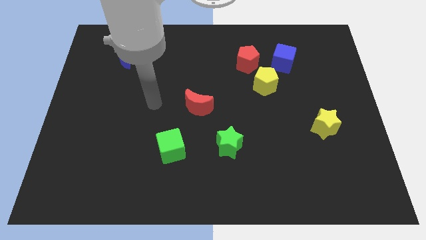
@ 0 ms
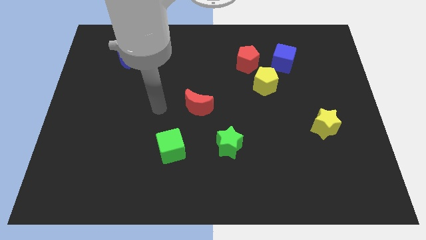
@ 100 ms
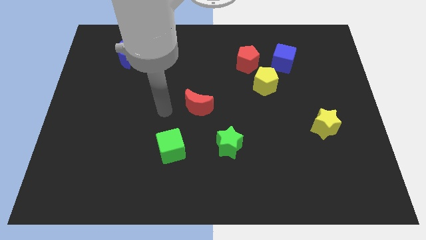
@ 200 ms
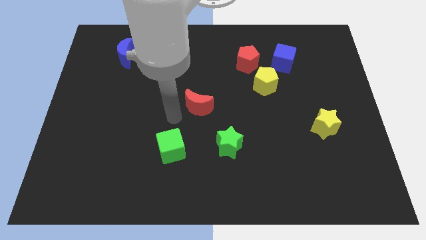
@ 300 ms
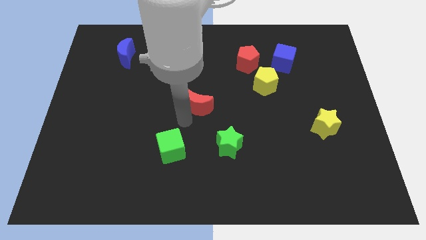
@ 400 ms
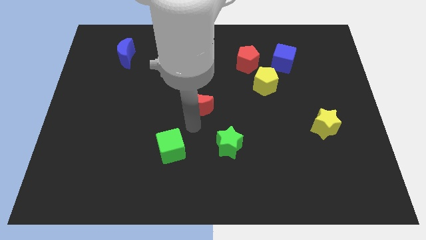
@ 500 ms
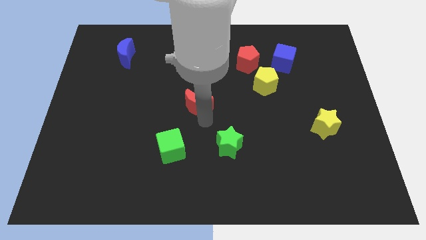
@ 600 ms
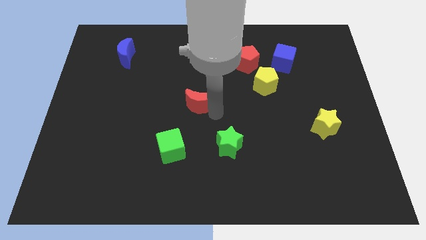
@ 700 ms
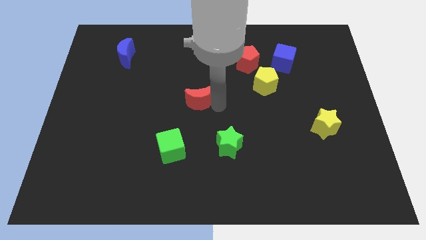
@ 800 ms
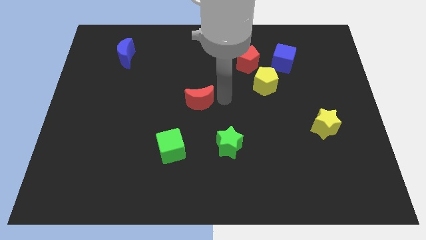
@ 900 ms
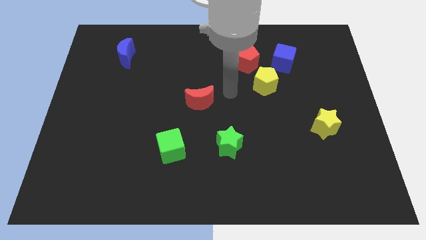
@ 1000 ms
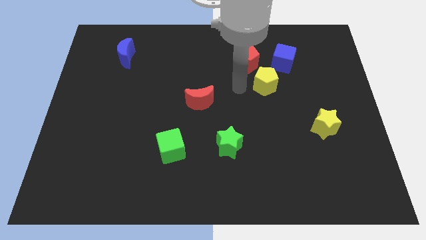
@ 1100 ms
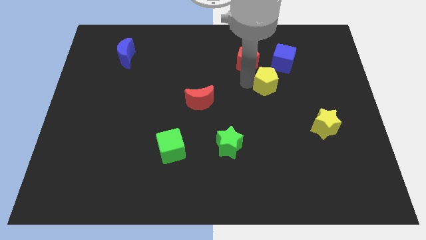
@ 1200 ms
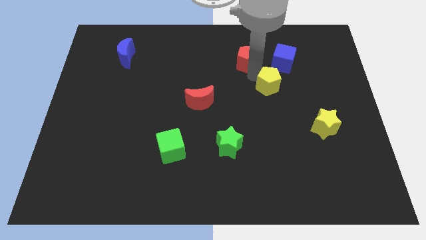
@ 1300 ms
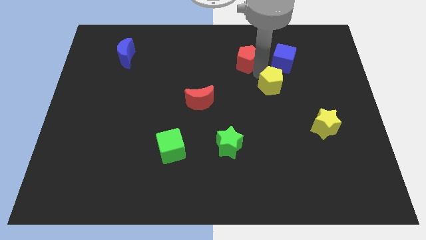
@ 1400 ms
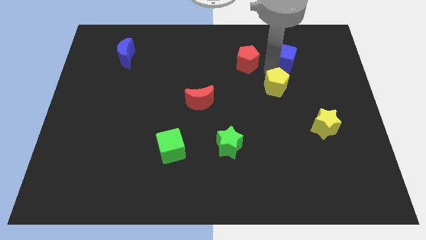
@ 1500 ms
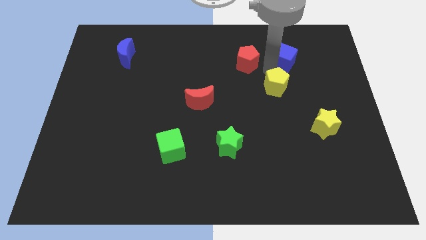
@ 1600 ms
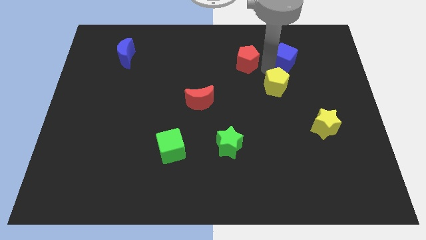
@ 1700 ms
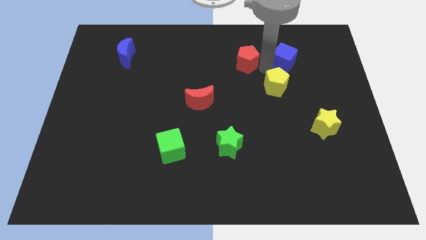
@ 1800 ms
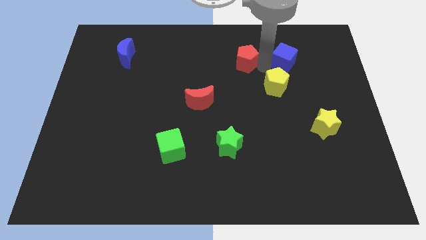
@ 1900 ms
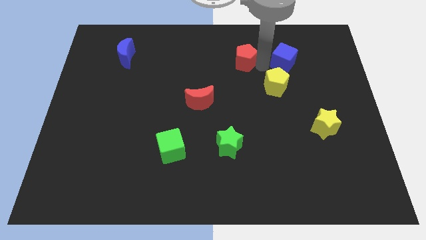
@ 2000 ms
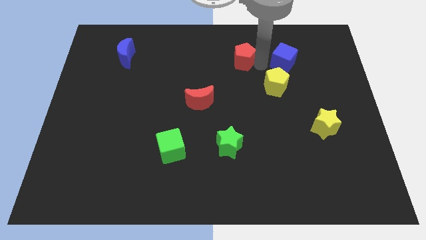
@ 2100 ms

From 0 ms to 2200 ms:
pull the red pentagon apart from the yellow pentagon and blue cube

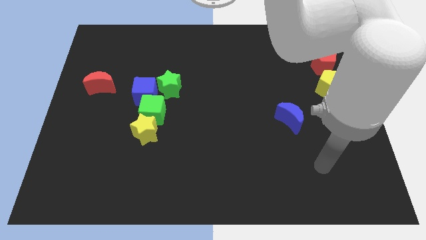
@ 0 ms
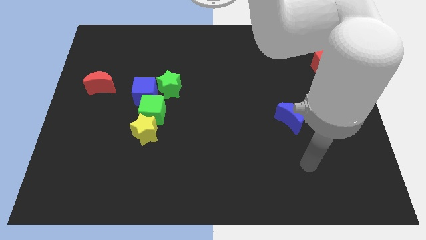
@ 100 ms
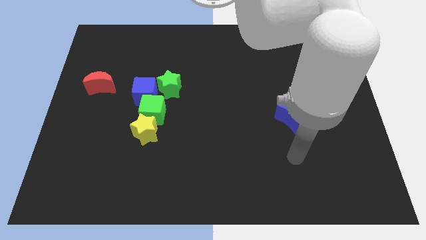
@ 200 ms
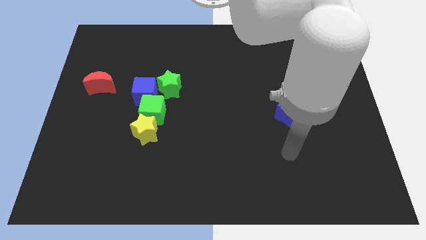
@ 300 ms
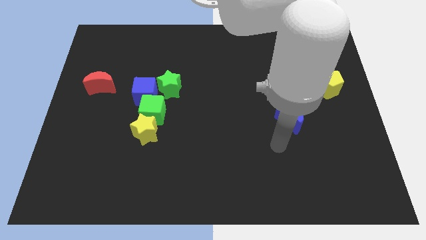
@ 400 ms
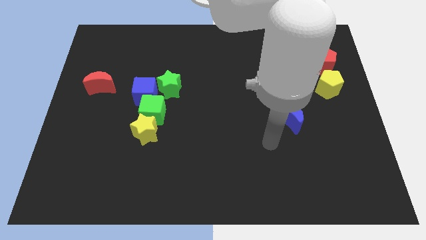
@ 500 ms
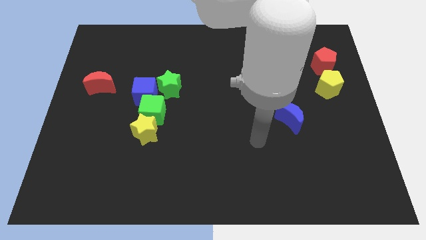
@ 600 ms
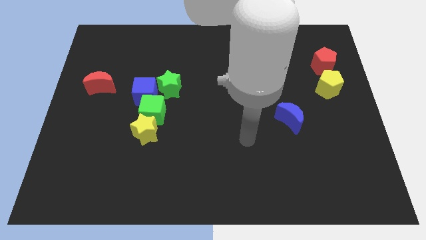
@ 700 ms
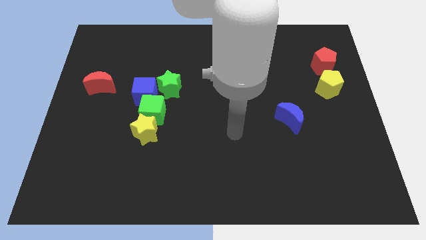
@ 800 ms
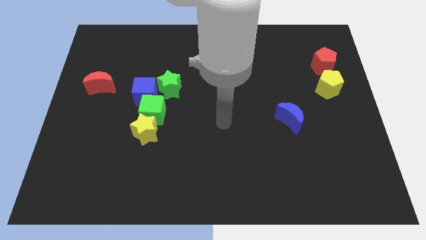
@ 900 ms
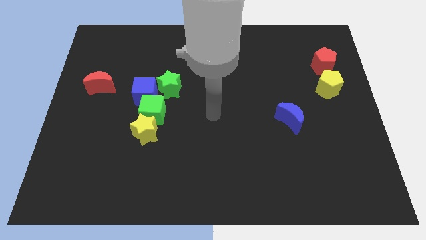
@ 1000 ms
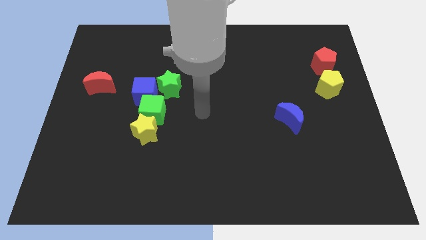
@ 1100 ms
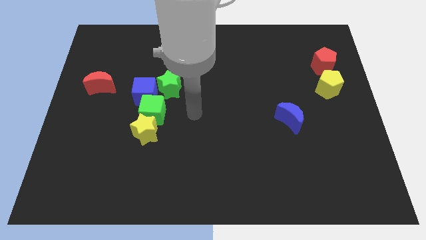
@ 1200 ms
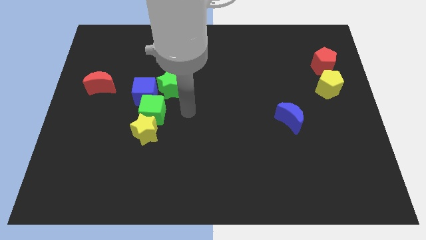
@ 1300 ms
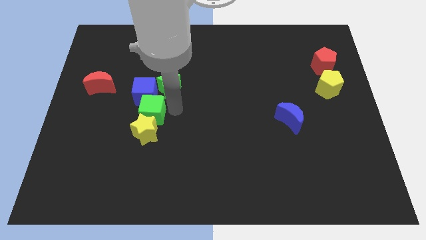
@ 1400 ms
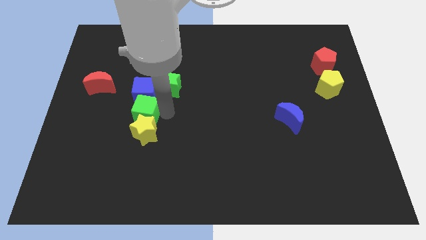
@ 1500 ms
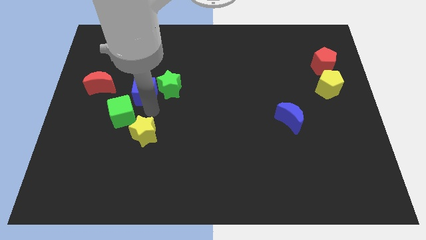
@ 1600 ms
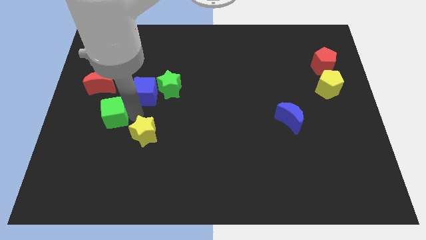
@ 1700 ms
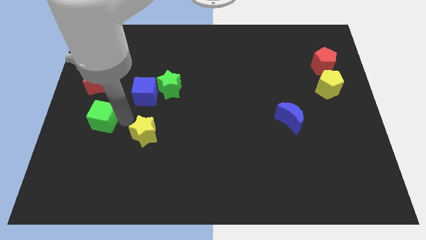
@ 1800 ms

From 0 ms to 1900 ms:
move the yellow star away from the green cube

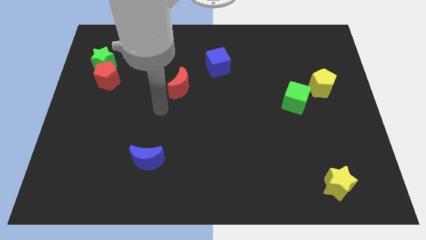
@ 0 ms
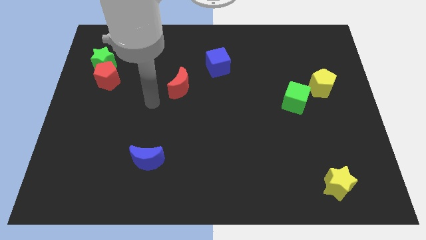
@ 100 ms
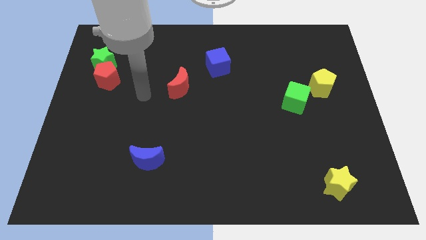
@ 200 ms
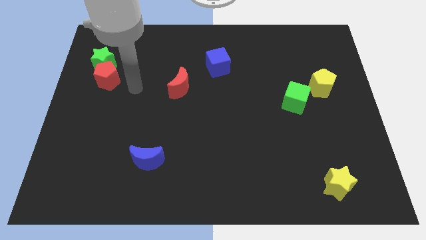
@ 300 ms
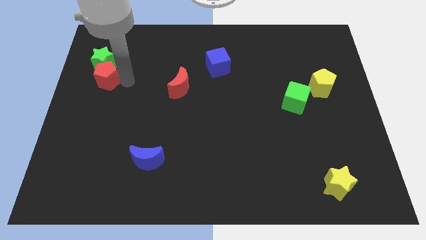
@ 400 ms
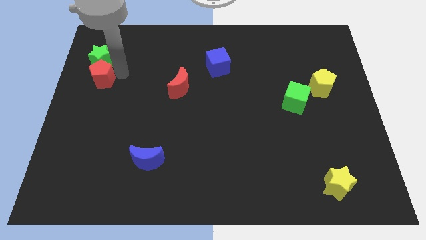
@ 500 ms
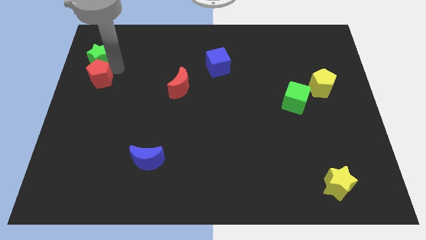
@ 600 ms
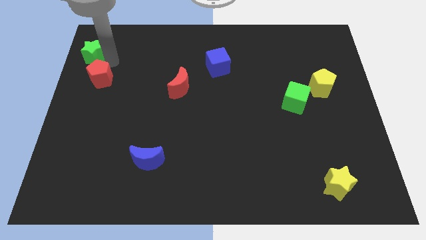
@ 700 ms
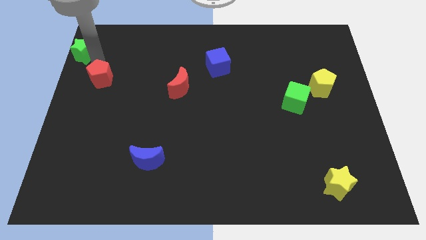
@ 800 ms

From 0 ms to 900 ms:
pull the red pentagon apart from the green star

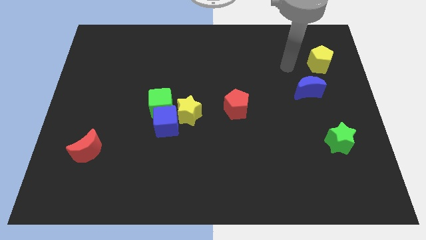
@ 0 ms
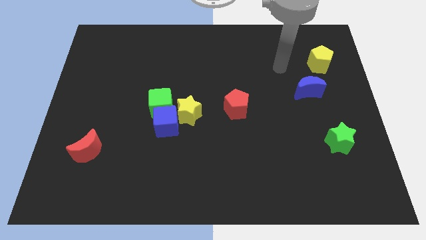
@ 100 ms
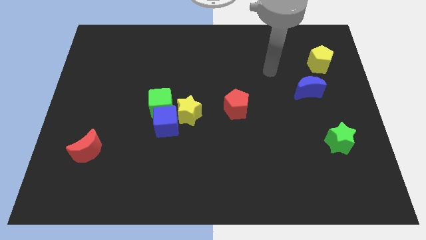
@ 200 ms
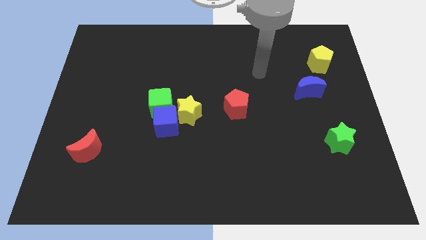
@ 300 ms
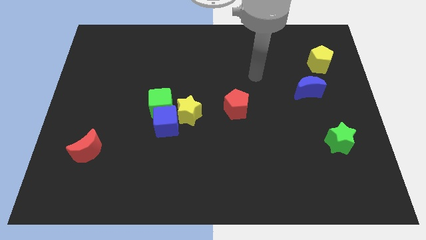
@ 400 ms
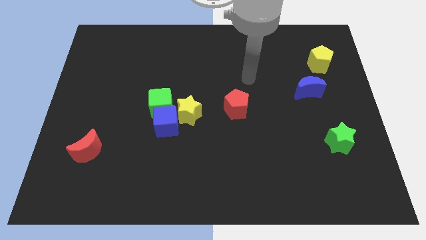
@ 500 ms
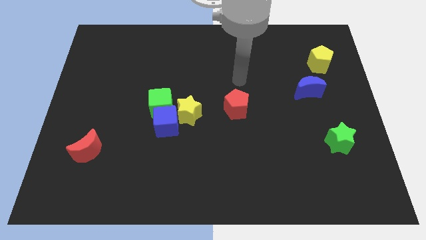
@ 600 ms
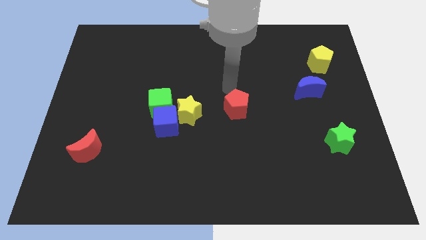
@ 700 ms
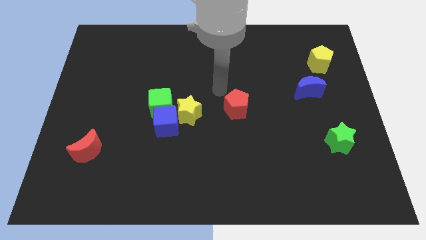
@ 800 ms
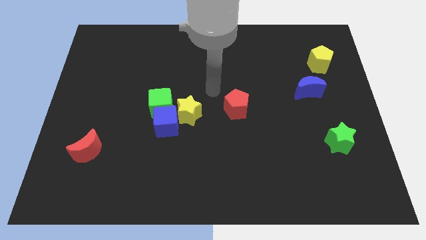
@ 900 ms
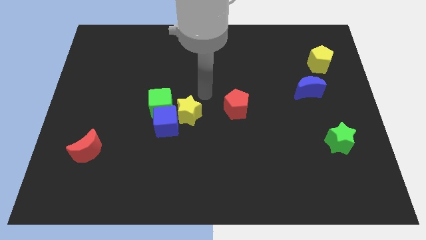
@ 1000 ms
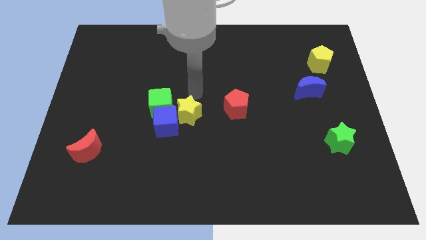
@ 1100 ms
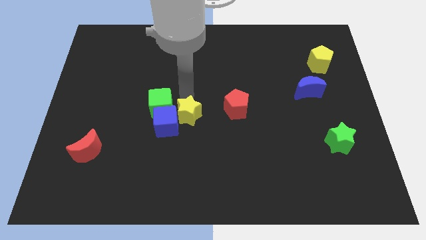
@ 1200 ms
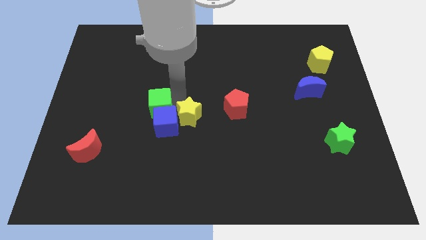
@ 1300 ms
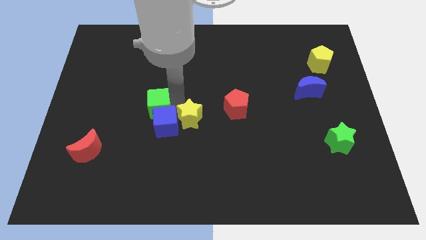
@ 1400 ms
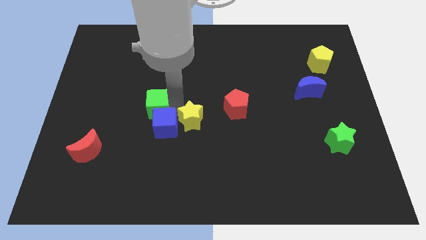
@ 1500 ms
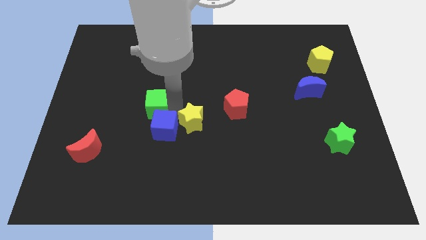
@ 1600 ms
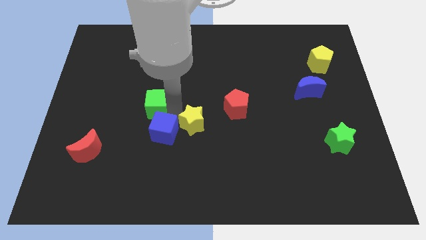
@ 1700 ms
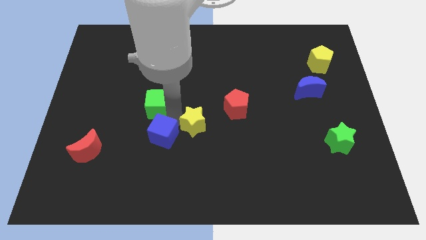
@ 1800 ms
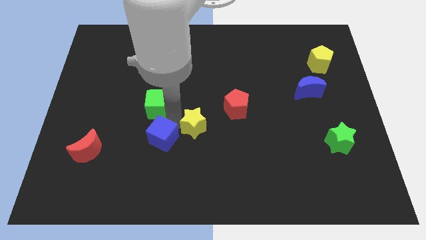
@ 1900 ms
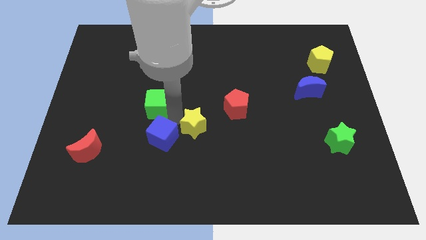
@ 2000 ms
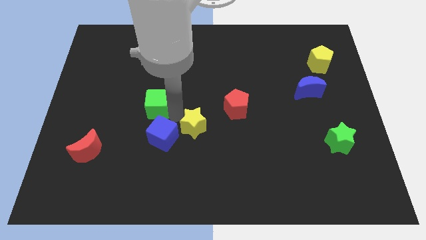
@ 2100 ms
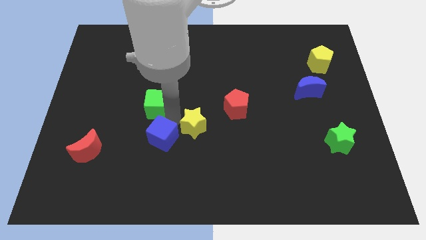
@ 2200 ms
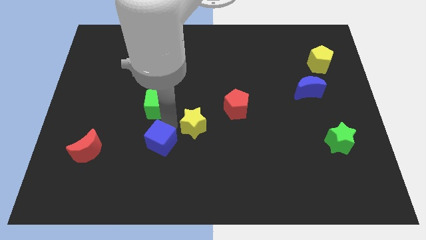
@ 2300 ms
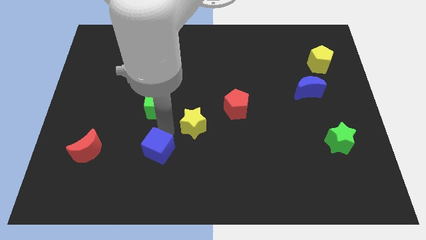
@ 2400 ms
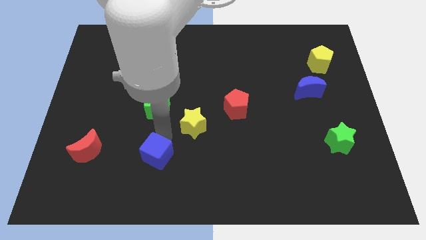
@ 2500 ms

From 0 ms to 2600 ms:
move the blue cube away from the green cube and yellow star

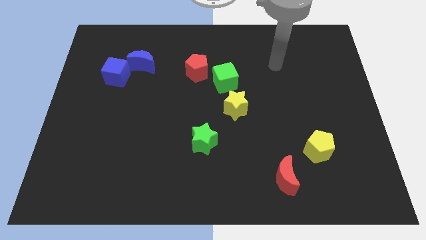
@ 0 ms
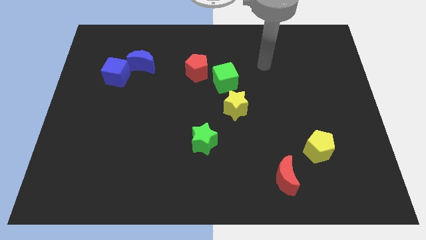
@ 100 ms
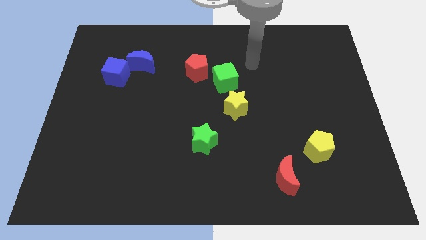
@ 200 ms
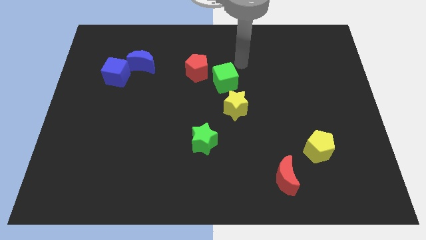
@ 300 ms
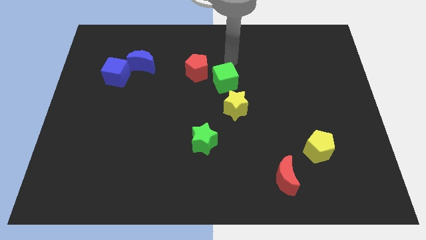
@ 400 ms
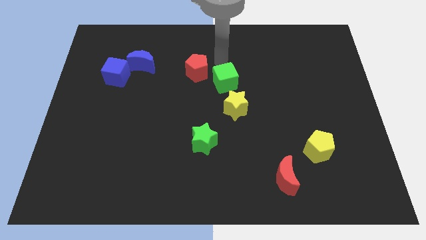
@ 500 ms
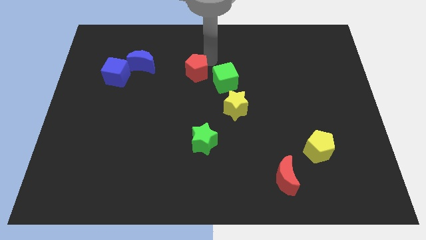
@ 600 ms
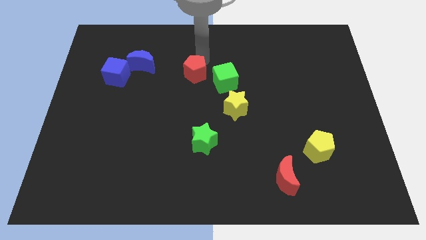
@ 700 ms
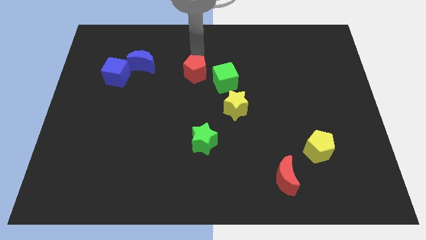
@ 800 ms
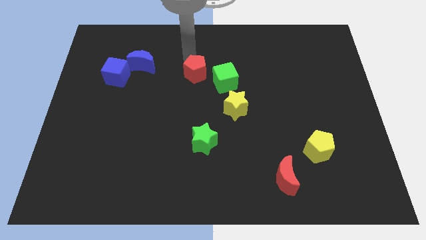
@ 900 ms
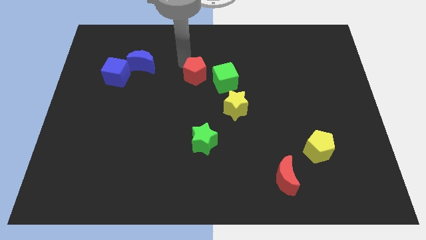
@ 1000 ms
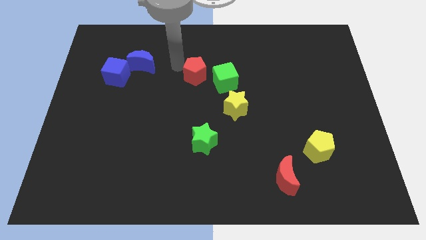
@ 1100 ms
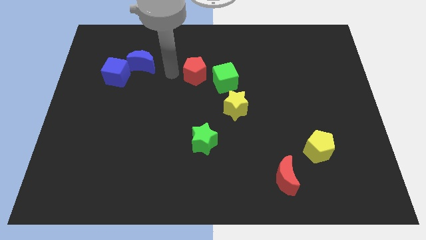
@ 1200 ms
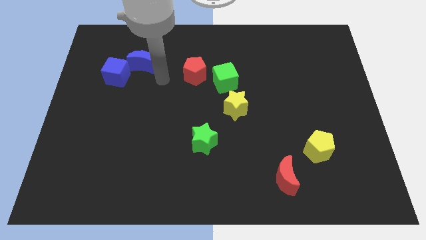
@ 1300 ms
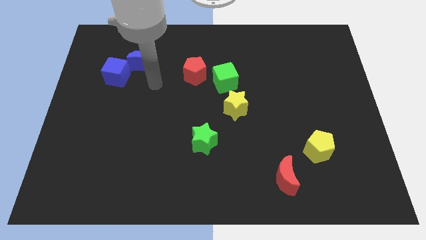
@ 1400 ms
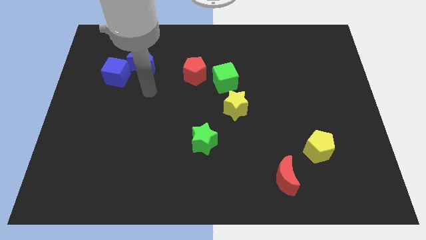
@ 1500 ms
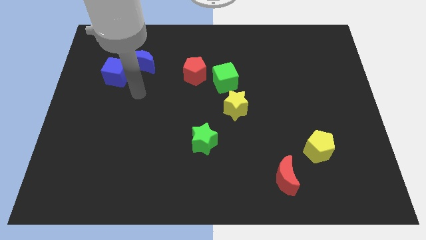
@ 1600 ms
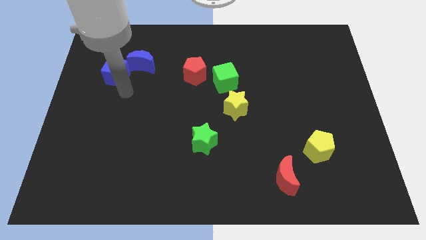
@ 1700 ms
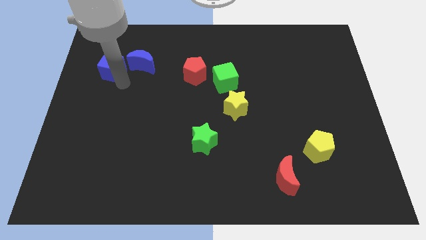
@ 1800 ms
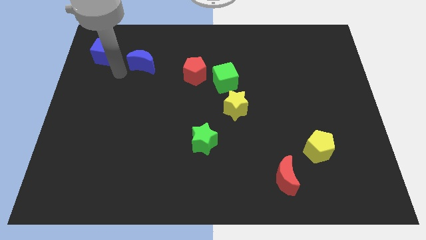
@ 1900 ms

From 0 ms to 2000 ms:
pull the blue moon apart from the blue cube
